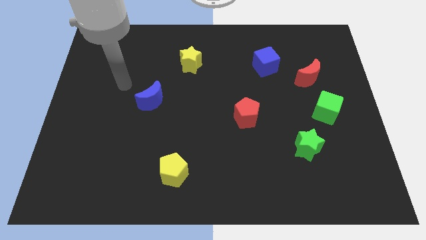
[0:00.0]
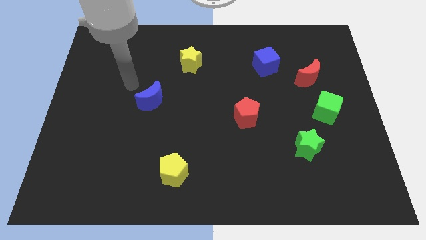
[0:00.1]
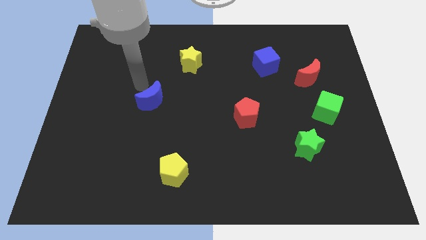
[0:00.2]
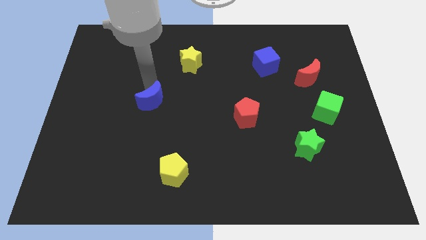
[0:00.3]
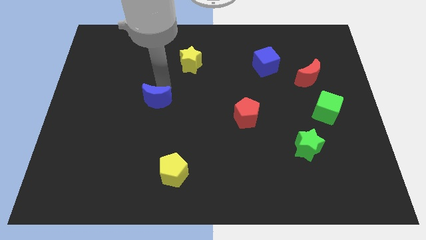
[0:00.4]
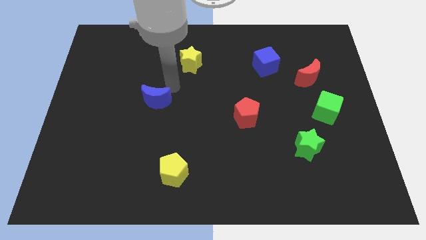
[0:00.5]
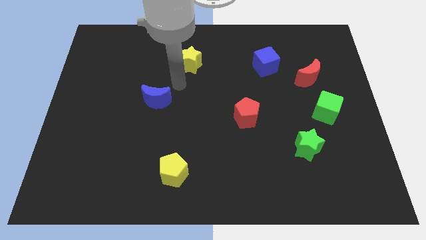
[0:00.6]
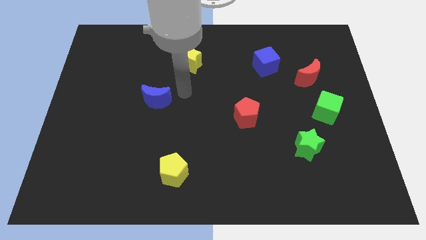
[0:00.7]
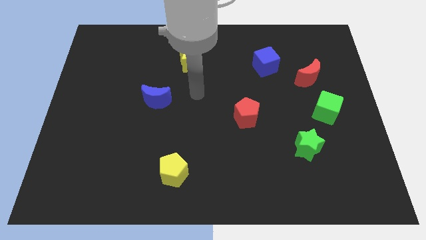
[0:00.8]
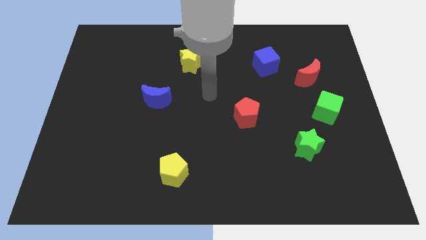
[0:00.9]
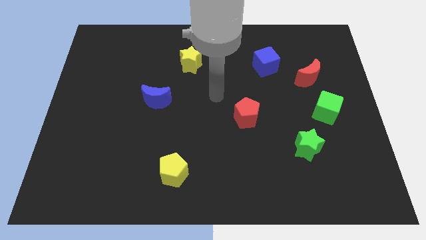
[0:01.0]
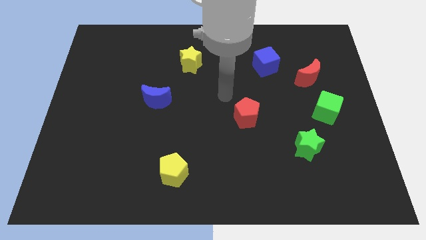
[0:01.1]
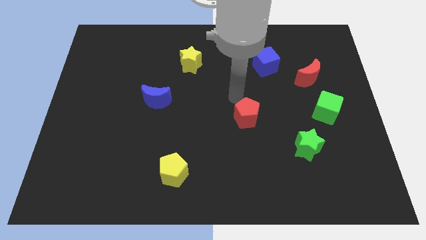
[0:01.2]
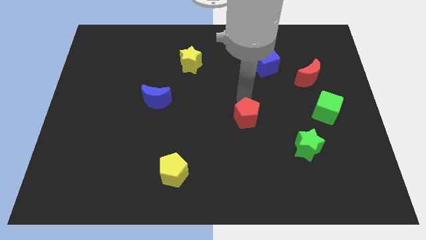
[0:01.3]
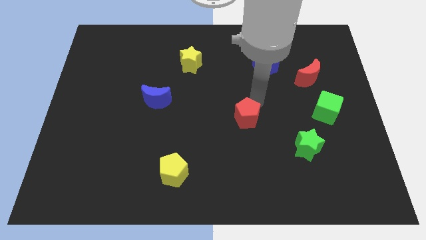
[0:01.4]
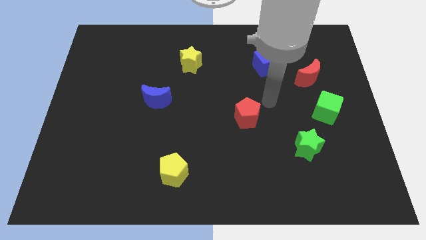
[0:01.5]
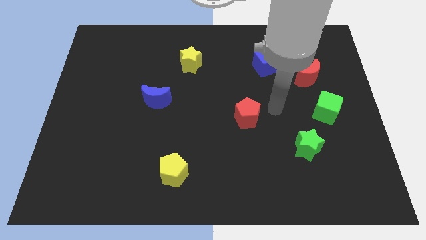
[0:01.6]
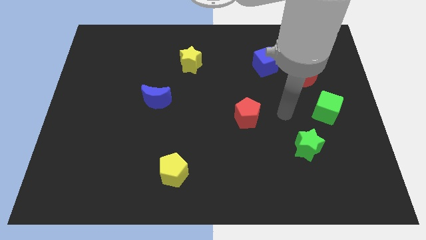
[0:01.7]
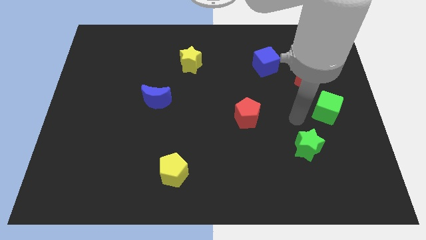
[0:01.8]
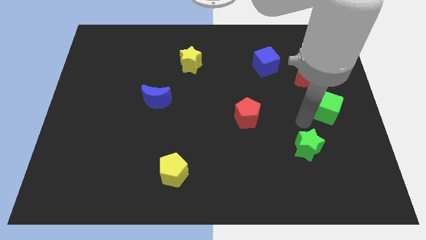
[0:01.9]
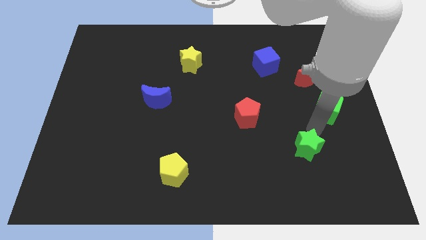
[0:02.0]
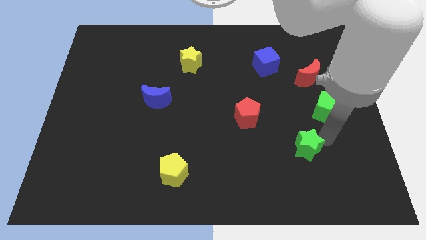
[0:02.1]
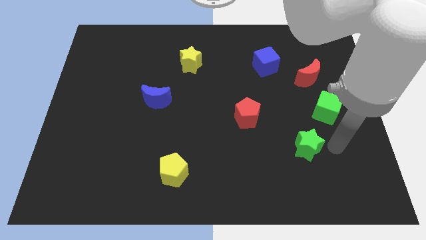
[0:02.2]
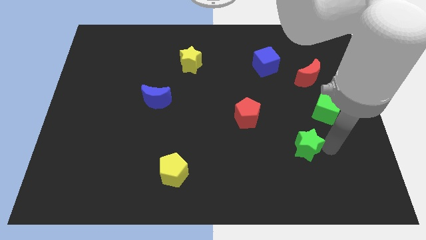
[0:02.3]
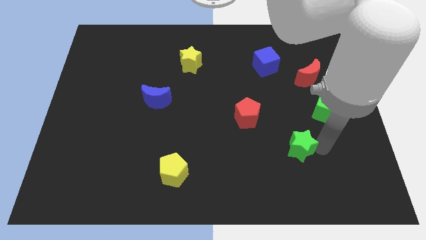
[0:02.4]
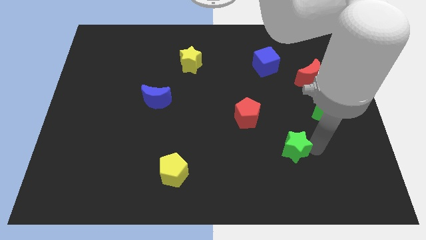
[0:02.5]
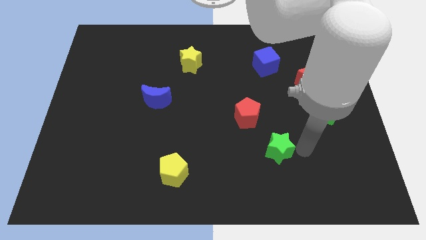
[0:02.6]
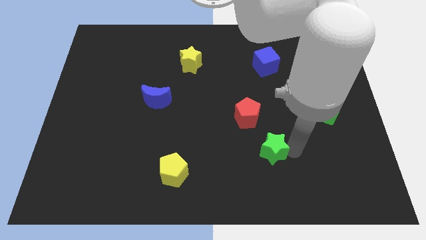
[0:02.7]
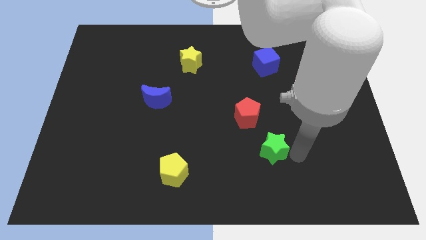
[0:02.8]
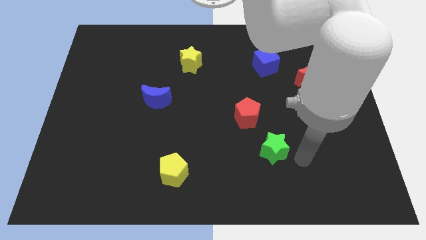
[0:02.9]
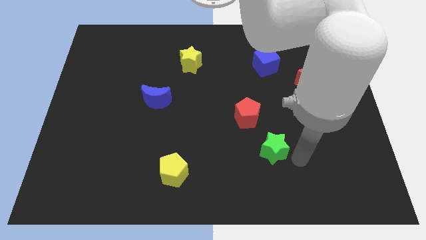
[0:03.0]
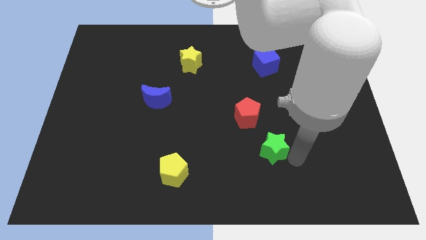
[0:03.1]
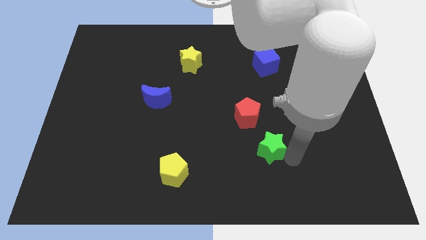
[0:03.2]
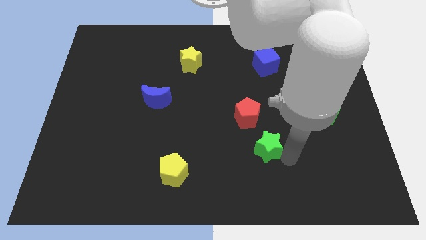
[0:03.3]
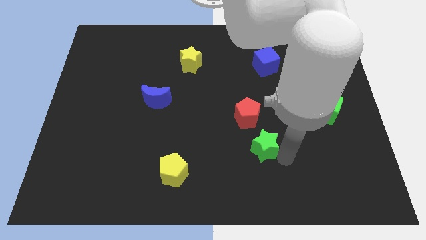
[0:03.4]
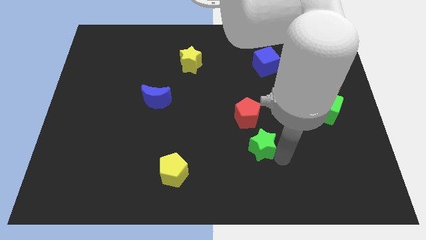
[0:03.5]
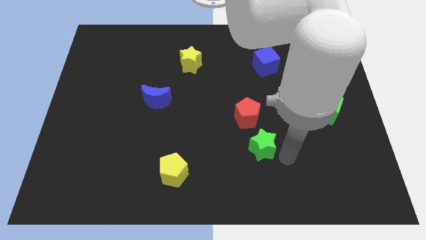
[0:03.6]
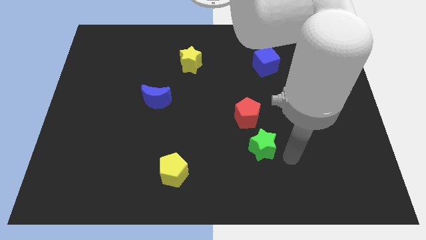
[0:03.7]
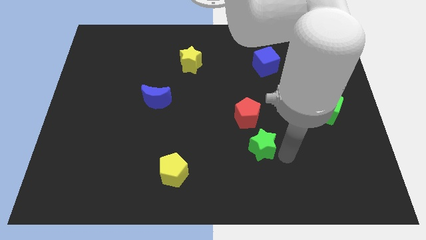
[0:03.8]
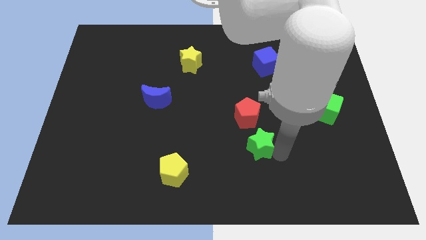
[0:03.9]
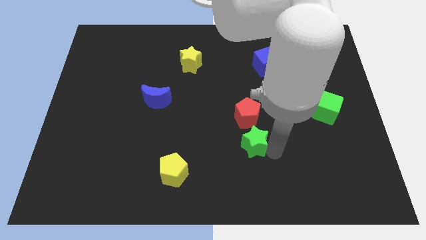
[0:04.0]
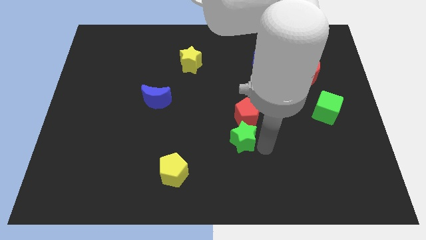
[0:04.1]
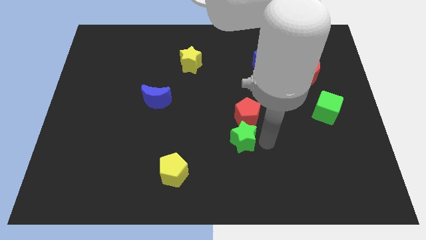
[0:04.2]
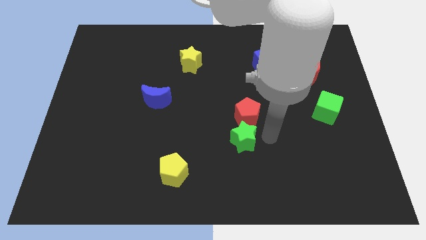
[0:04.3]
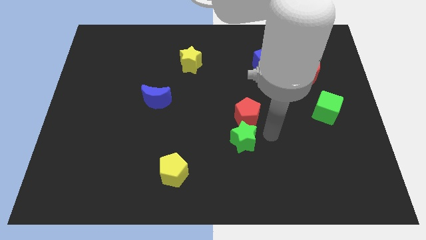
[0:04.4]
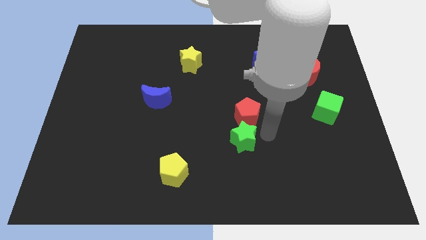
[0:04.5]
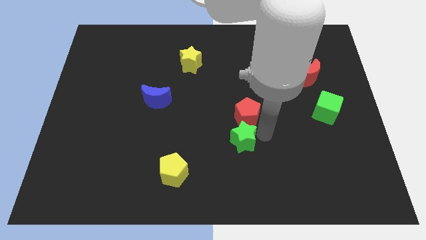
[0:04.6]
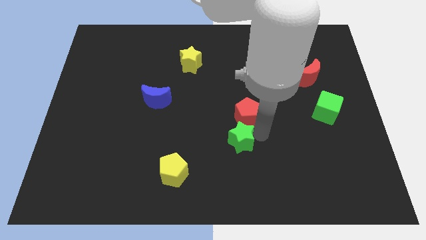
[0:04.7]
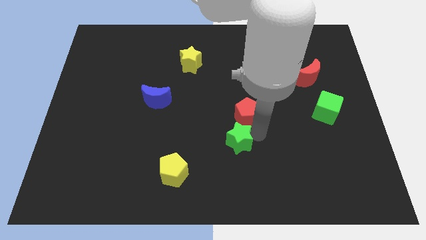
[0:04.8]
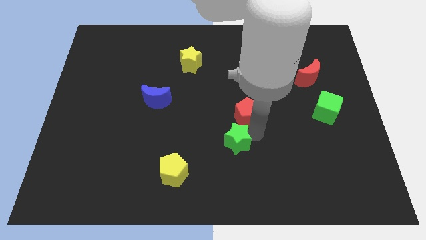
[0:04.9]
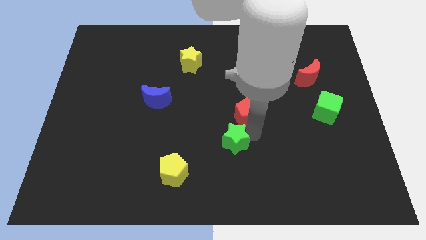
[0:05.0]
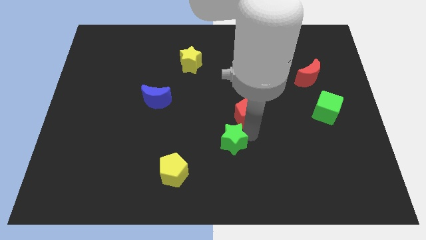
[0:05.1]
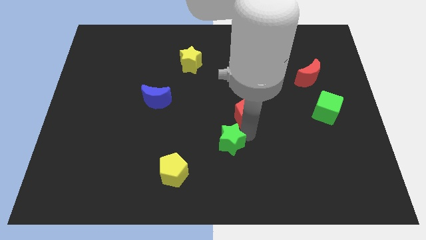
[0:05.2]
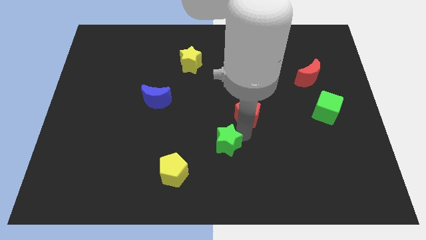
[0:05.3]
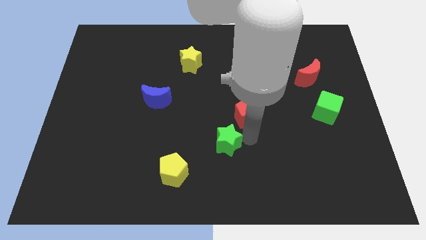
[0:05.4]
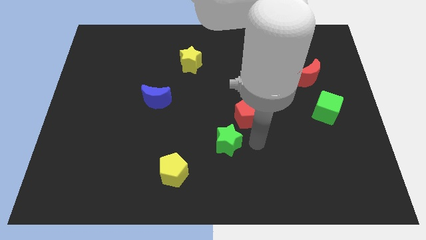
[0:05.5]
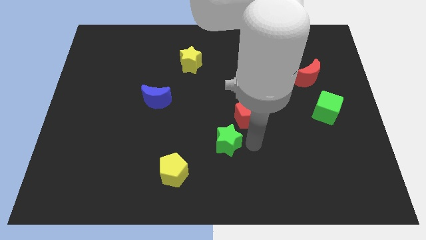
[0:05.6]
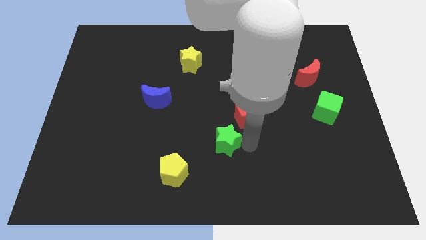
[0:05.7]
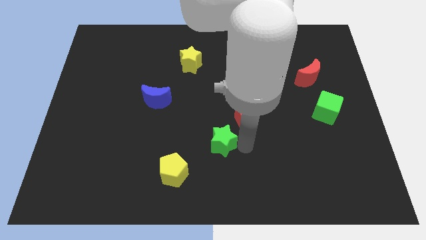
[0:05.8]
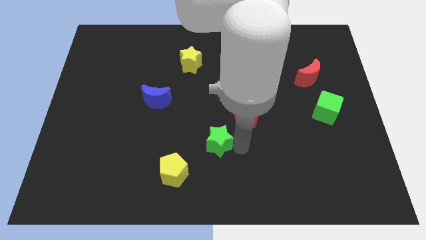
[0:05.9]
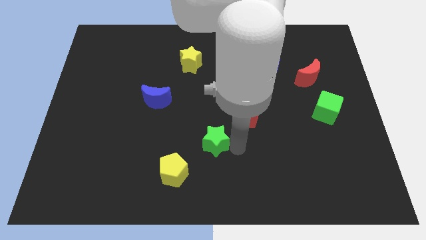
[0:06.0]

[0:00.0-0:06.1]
slide the green star left

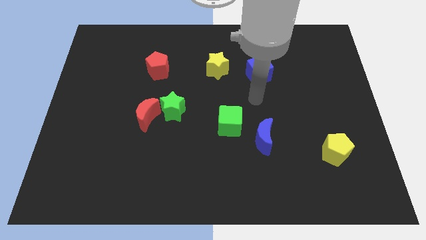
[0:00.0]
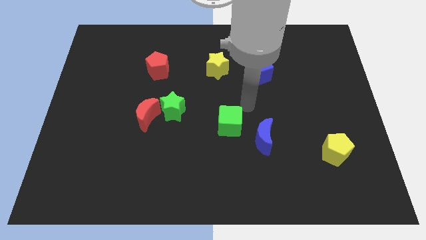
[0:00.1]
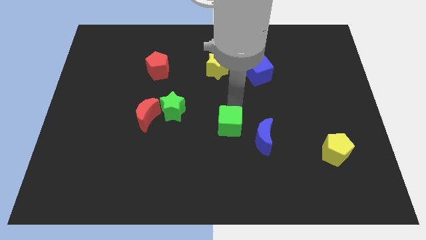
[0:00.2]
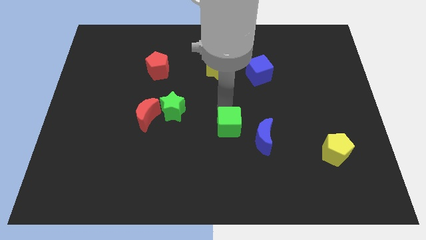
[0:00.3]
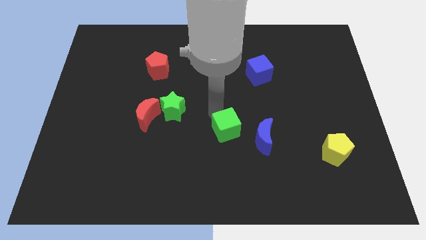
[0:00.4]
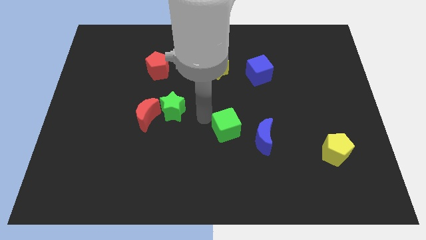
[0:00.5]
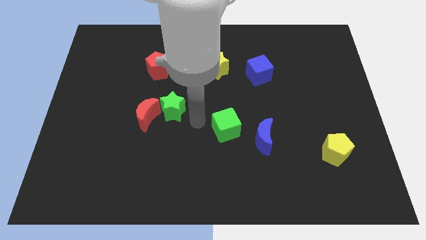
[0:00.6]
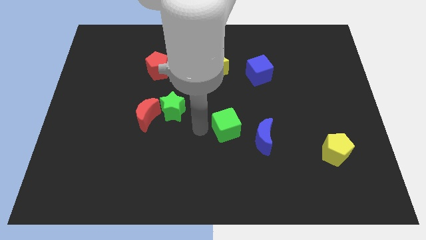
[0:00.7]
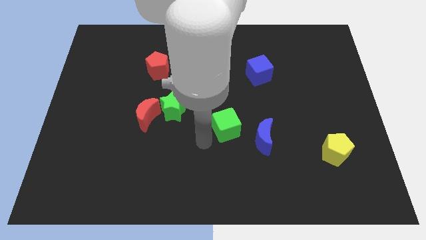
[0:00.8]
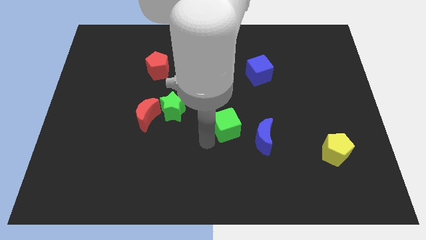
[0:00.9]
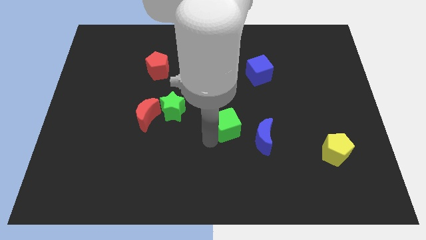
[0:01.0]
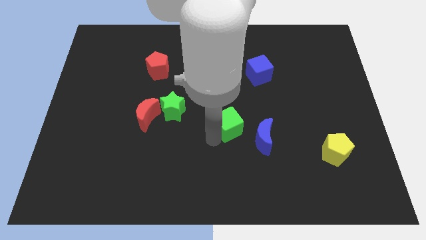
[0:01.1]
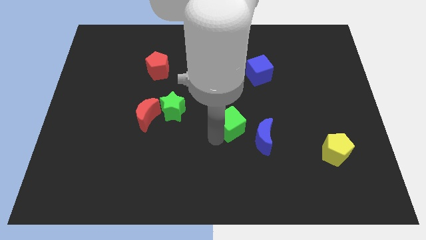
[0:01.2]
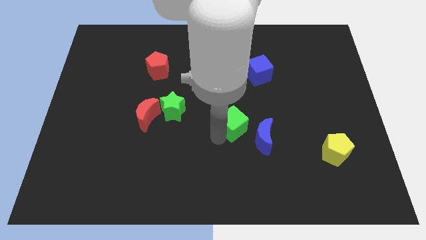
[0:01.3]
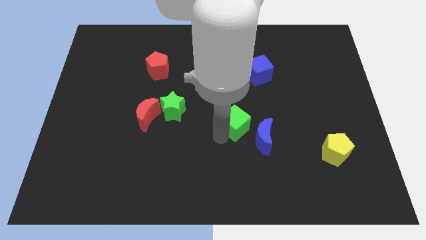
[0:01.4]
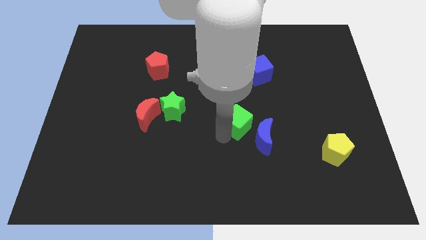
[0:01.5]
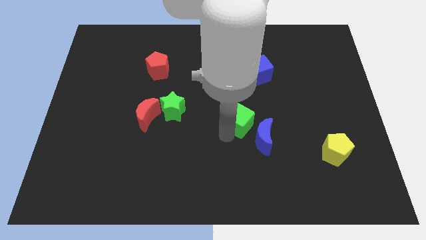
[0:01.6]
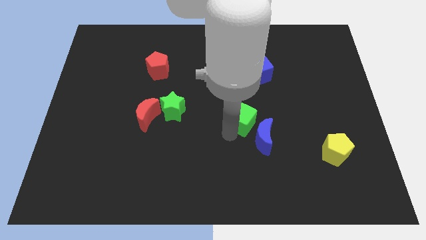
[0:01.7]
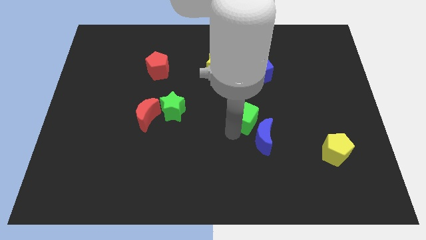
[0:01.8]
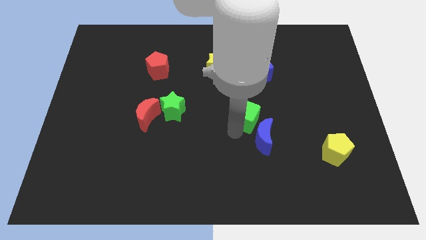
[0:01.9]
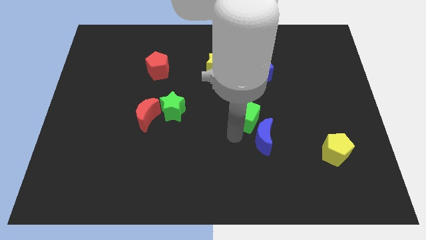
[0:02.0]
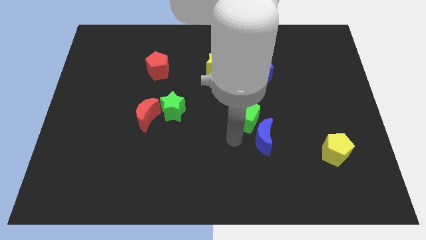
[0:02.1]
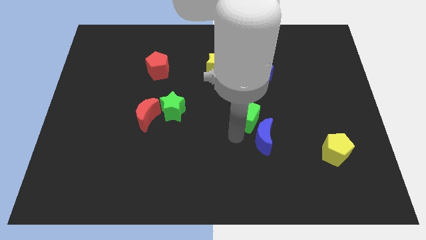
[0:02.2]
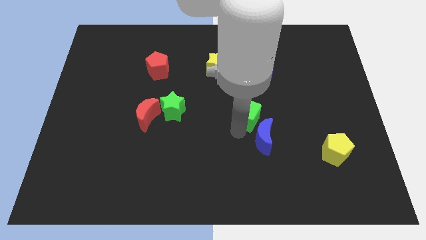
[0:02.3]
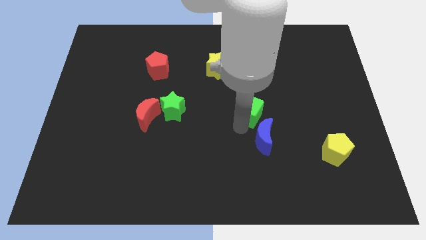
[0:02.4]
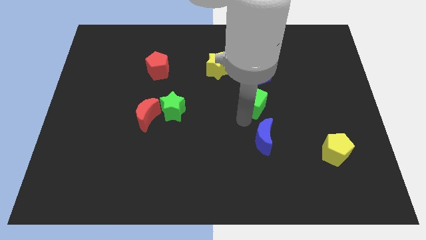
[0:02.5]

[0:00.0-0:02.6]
slightly move the green cube up and right diagonally
